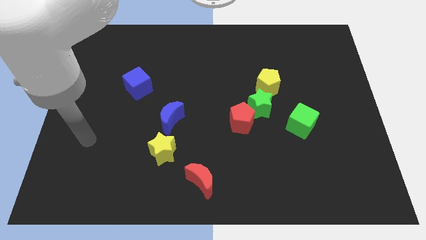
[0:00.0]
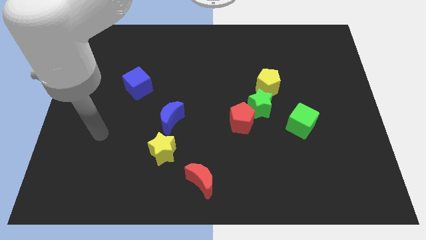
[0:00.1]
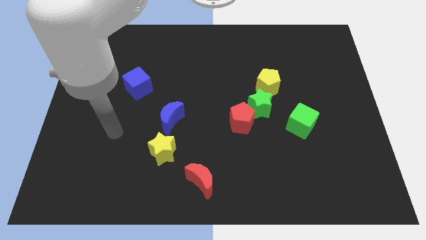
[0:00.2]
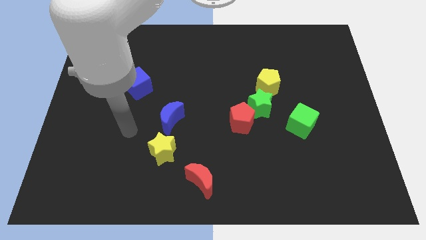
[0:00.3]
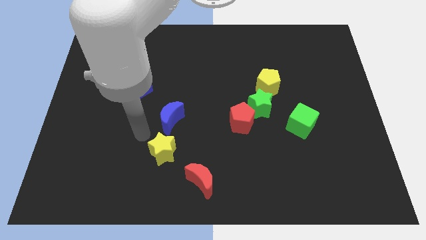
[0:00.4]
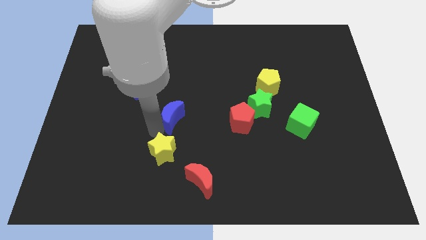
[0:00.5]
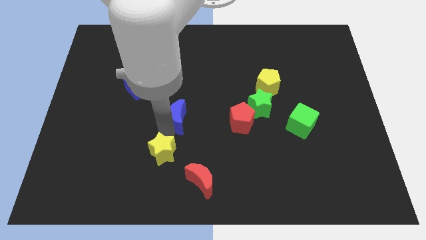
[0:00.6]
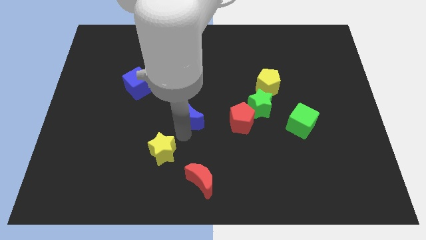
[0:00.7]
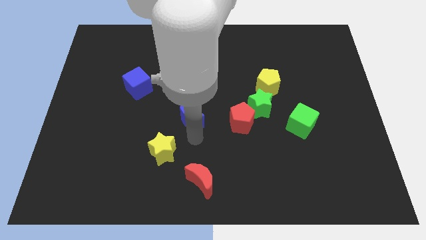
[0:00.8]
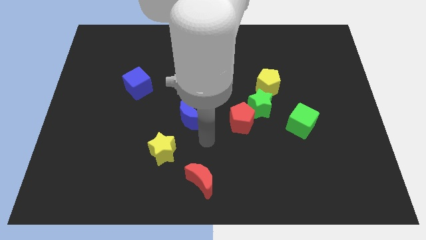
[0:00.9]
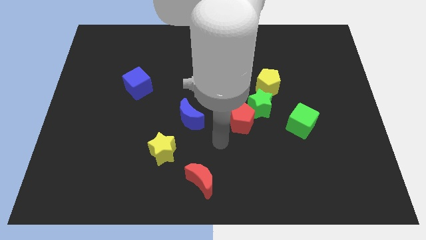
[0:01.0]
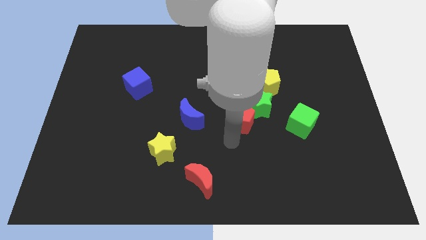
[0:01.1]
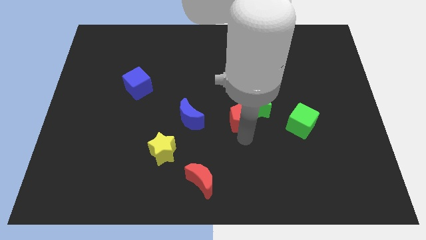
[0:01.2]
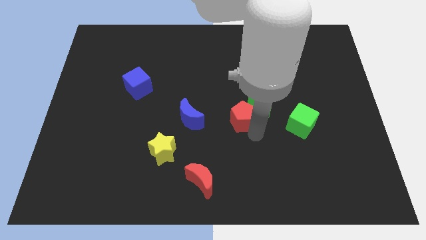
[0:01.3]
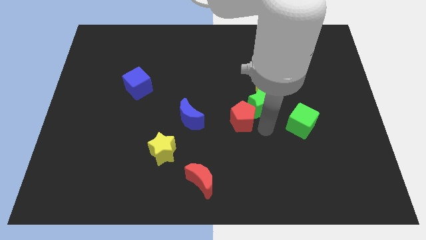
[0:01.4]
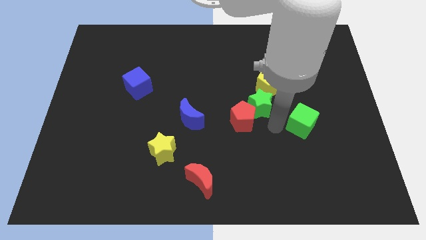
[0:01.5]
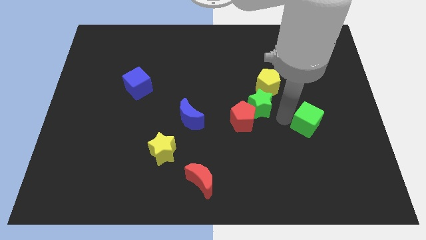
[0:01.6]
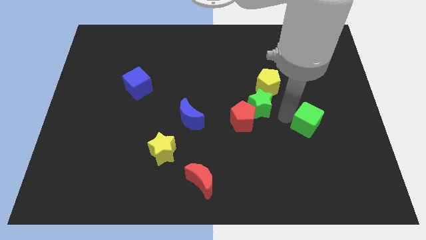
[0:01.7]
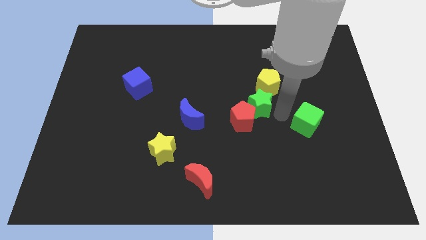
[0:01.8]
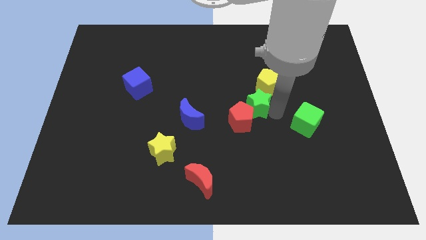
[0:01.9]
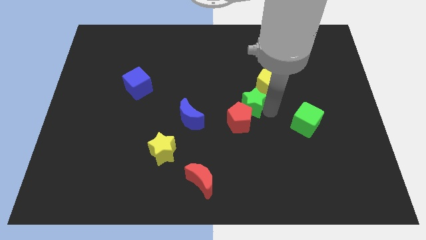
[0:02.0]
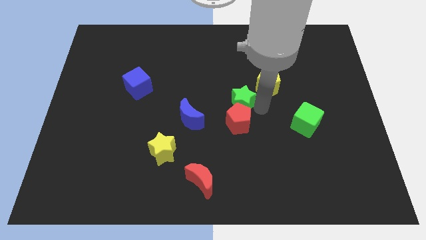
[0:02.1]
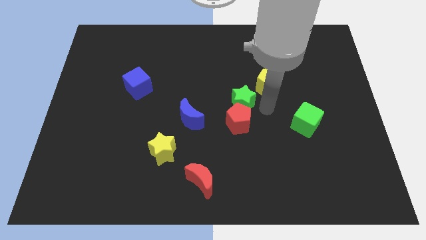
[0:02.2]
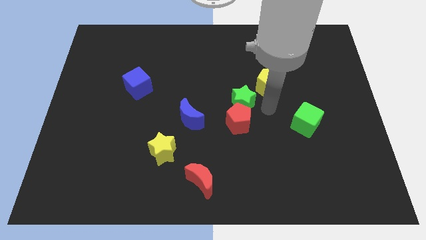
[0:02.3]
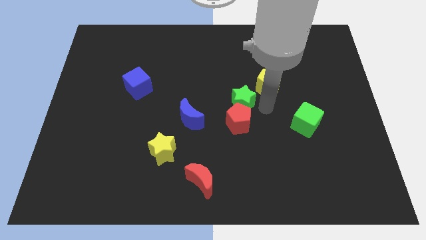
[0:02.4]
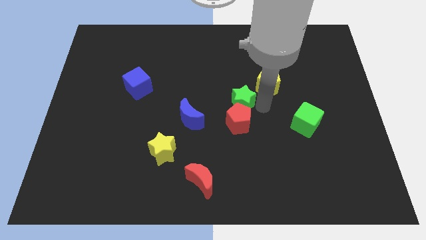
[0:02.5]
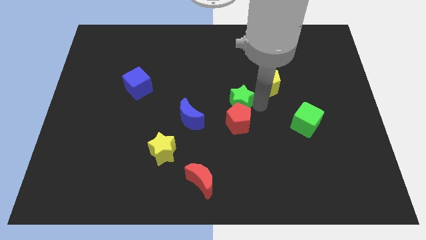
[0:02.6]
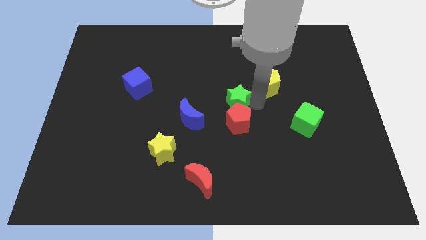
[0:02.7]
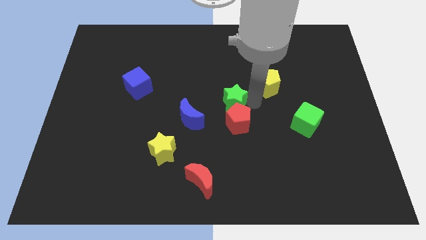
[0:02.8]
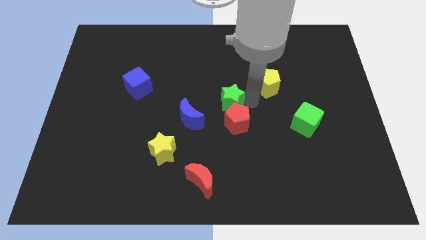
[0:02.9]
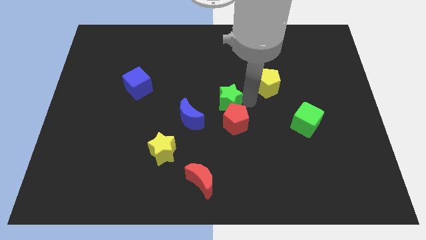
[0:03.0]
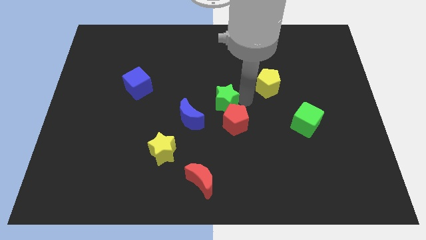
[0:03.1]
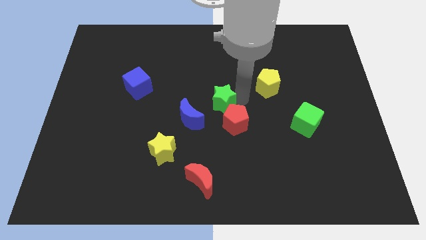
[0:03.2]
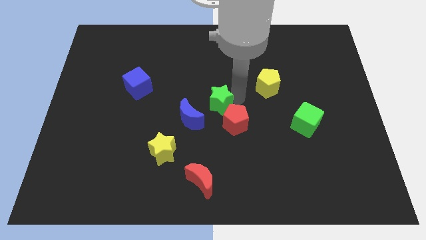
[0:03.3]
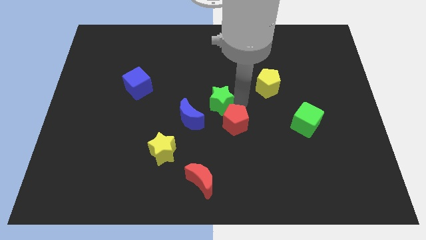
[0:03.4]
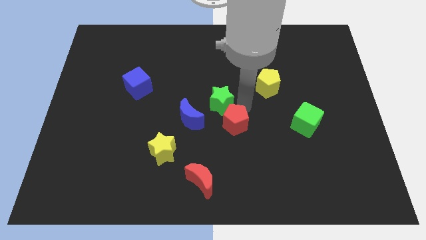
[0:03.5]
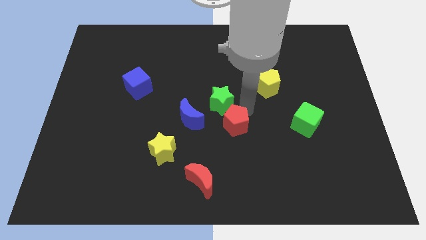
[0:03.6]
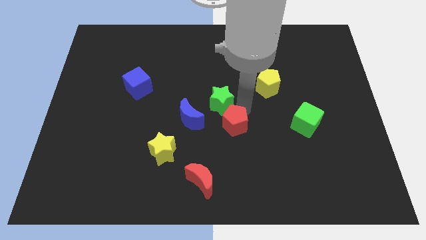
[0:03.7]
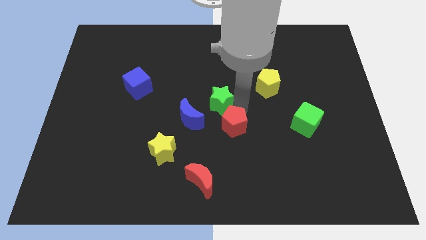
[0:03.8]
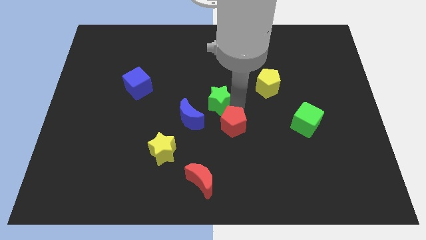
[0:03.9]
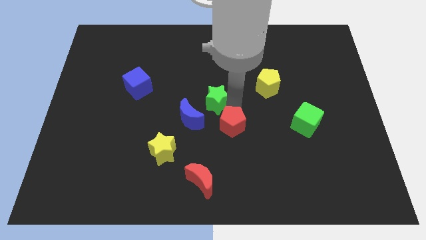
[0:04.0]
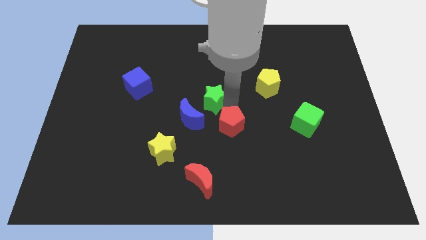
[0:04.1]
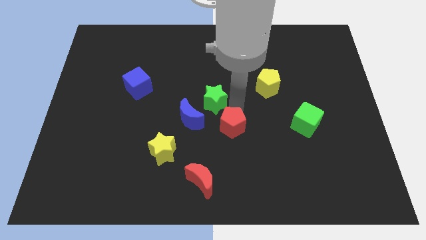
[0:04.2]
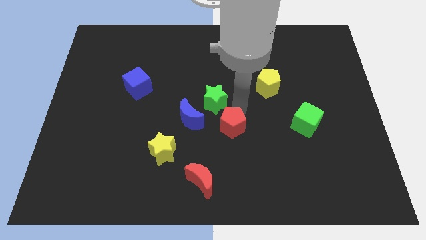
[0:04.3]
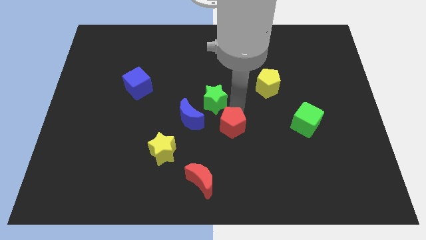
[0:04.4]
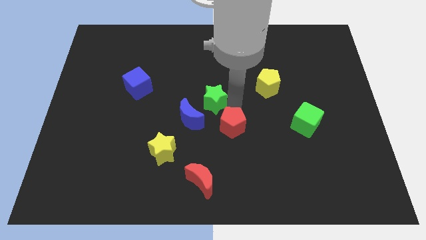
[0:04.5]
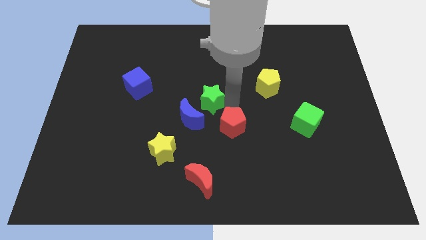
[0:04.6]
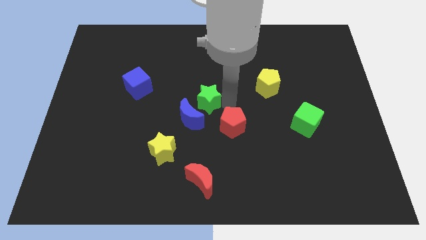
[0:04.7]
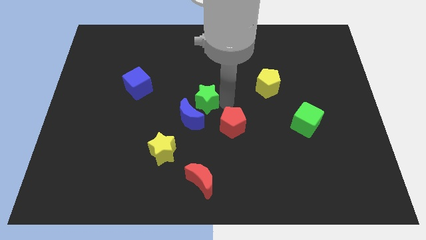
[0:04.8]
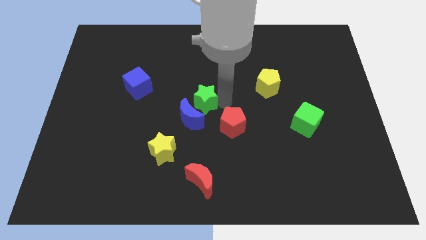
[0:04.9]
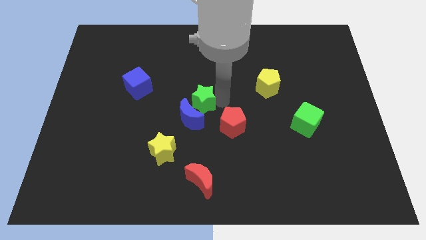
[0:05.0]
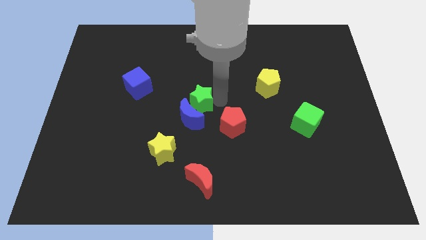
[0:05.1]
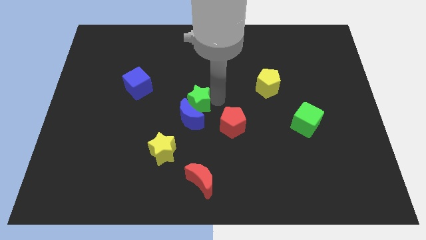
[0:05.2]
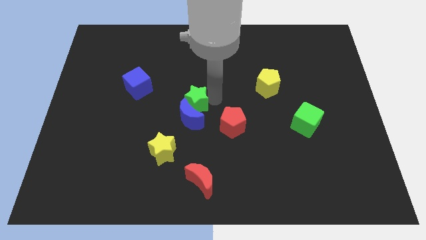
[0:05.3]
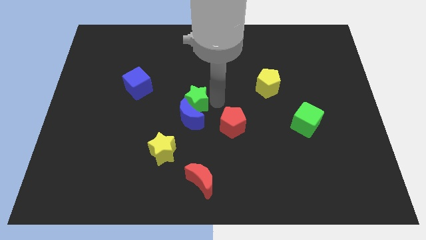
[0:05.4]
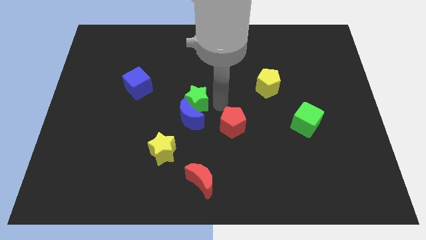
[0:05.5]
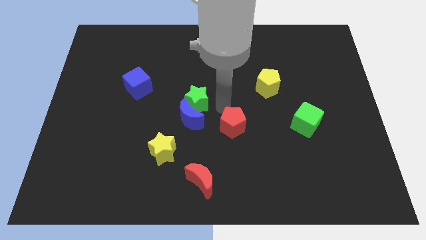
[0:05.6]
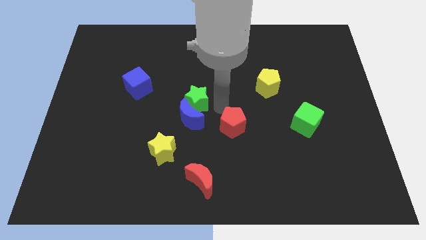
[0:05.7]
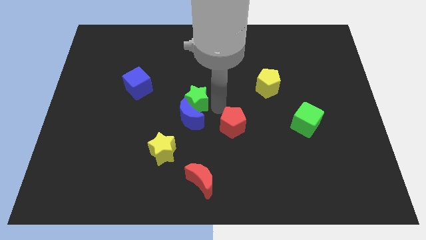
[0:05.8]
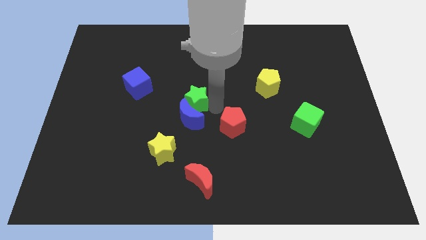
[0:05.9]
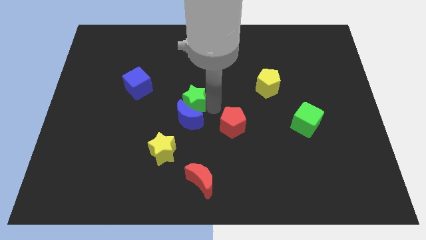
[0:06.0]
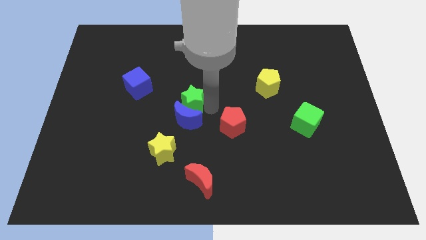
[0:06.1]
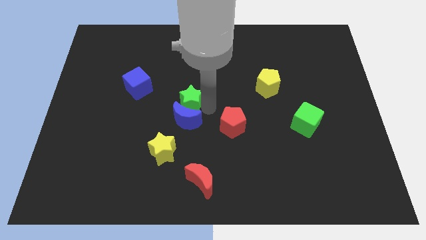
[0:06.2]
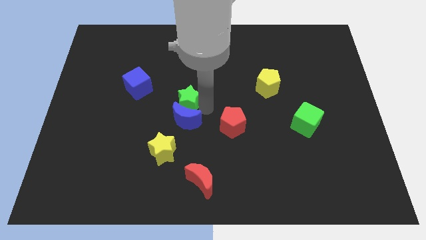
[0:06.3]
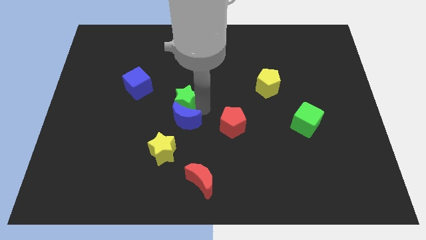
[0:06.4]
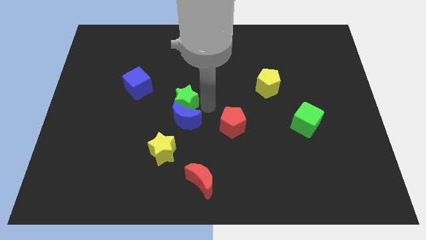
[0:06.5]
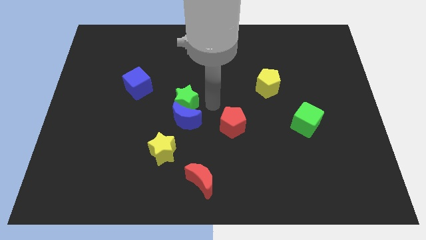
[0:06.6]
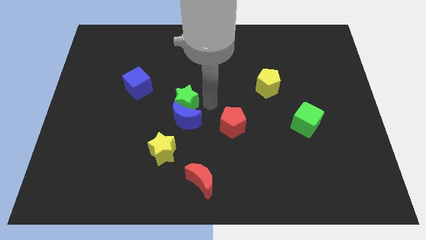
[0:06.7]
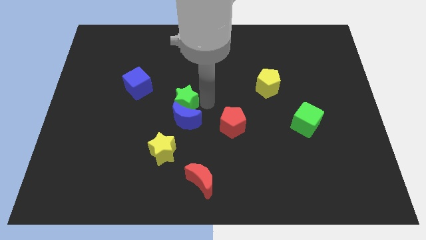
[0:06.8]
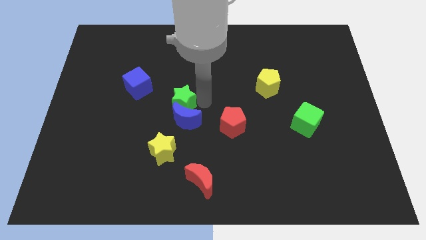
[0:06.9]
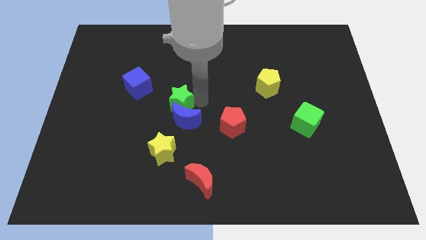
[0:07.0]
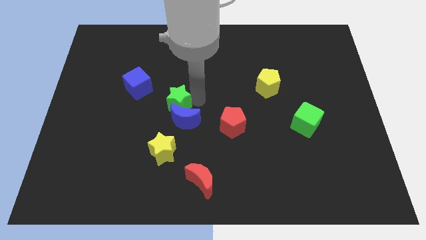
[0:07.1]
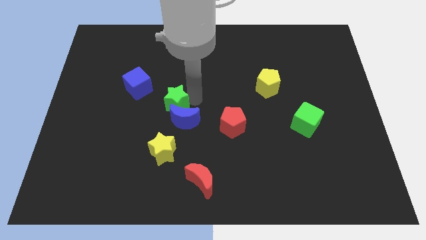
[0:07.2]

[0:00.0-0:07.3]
move the green star left

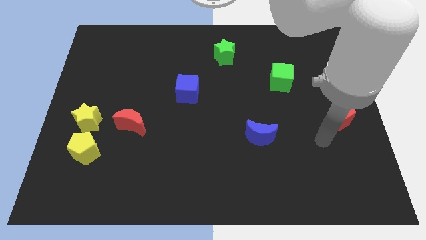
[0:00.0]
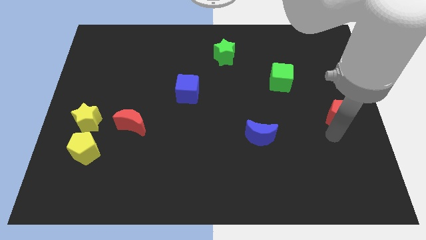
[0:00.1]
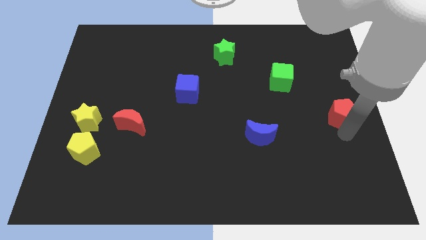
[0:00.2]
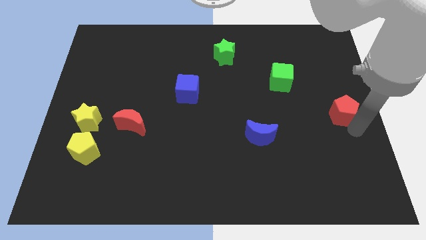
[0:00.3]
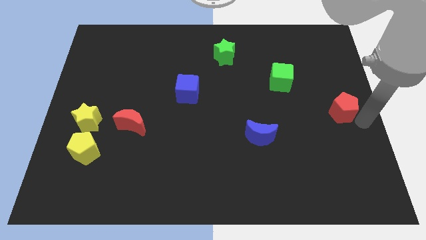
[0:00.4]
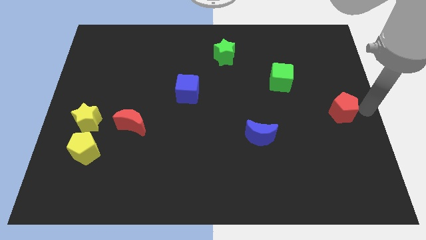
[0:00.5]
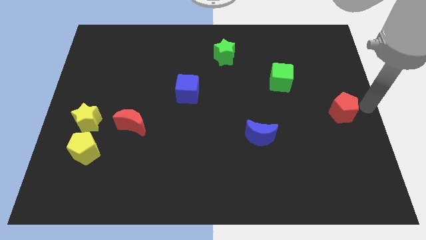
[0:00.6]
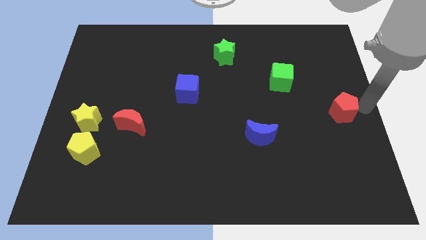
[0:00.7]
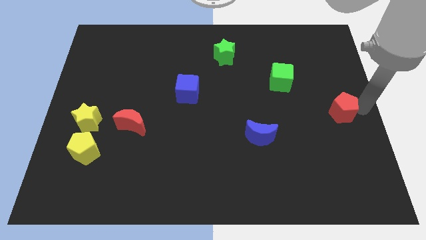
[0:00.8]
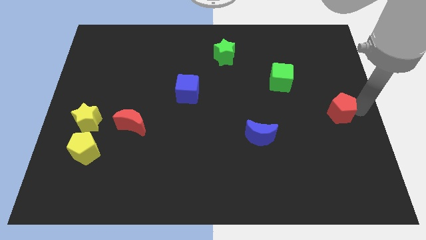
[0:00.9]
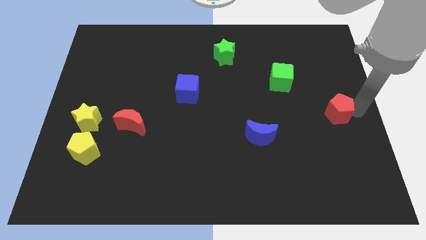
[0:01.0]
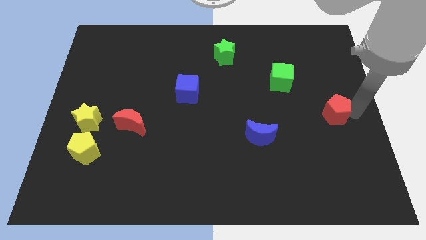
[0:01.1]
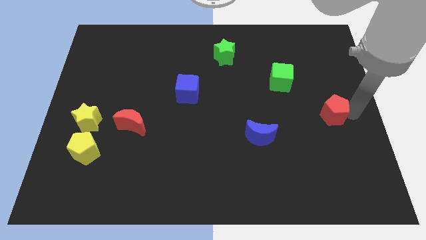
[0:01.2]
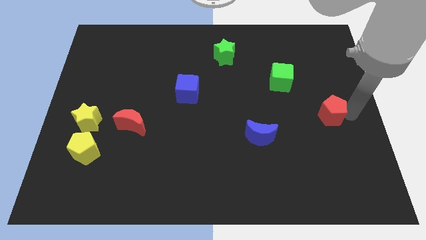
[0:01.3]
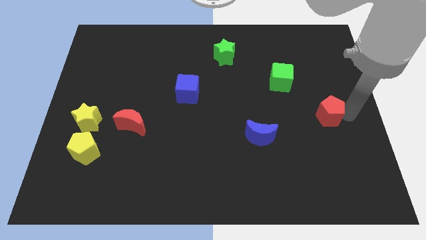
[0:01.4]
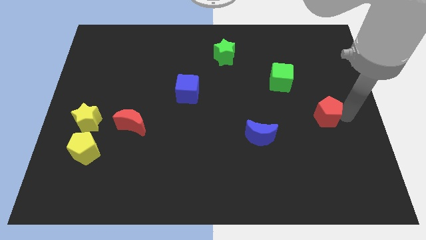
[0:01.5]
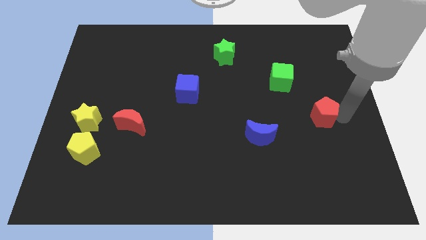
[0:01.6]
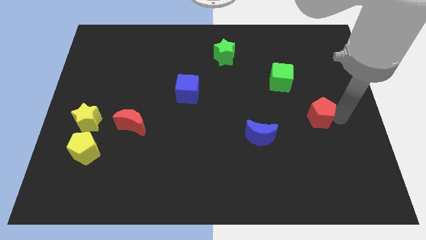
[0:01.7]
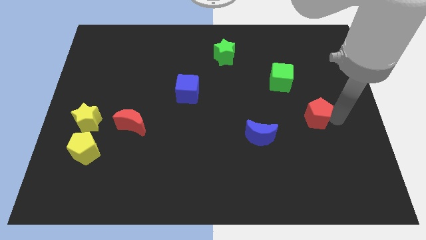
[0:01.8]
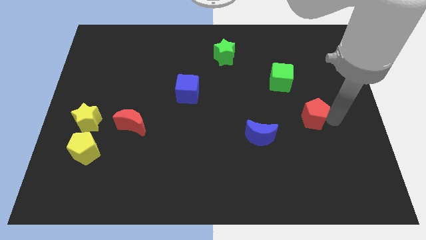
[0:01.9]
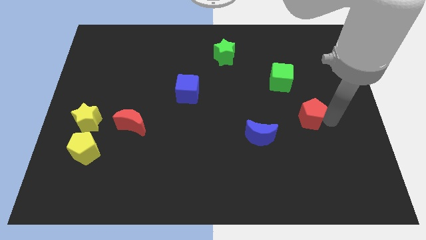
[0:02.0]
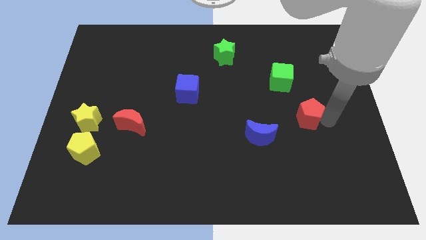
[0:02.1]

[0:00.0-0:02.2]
move the red pentagon to the left a little
